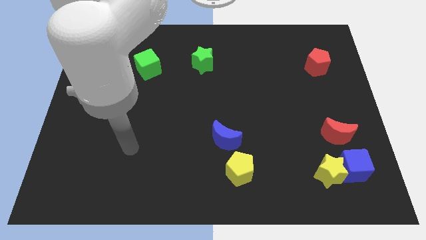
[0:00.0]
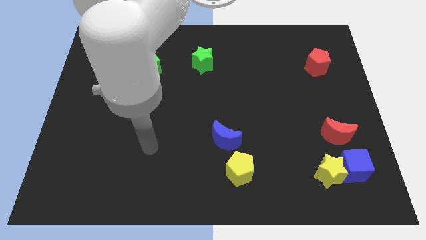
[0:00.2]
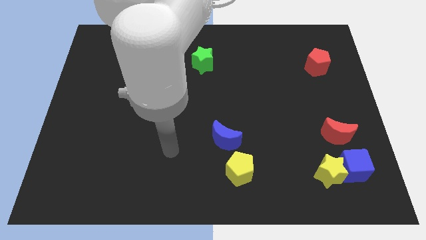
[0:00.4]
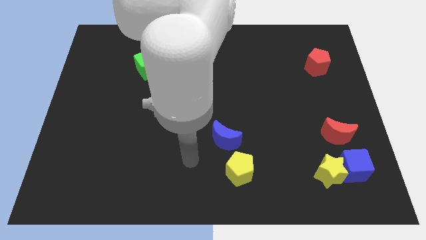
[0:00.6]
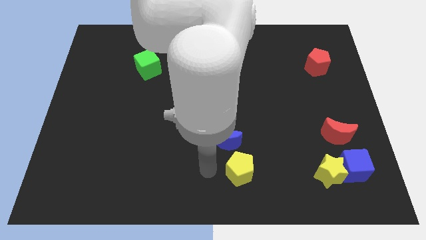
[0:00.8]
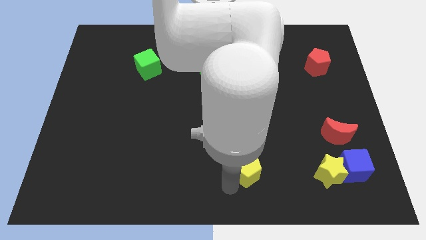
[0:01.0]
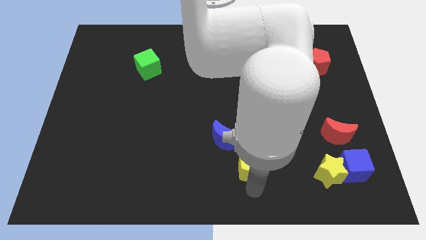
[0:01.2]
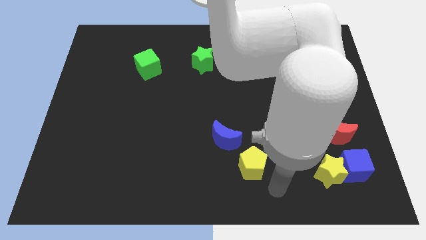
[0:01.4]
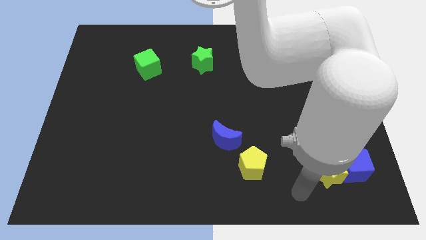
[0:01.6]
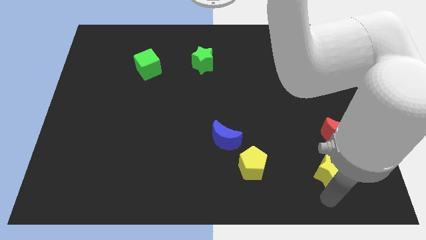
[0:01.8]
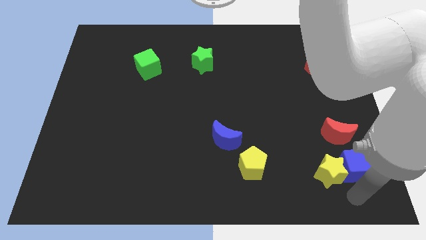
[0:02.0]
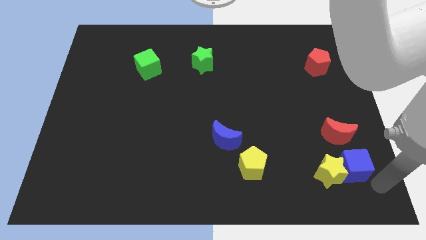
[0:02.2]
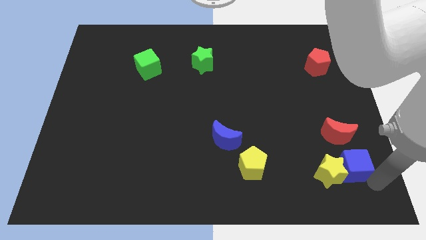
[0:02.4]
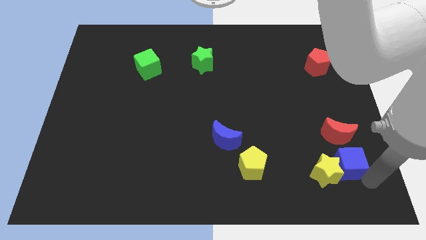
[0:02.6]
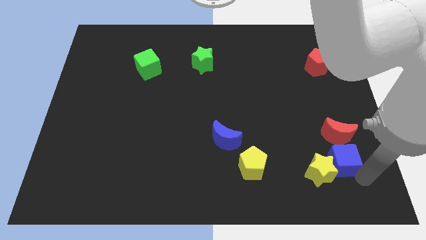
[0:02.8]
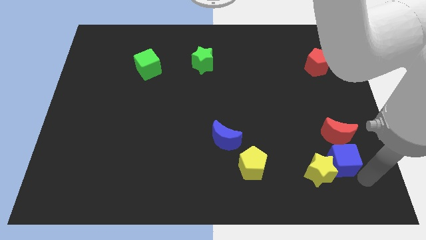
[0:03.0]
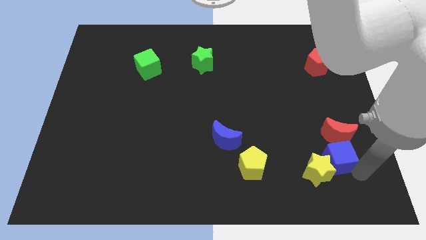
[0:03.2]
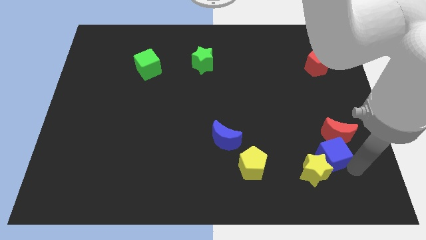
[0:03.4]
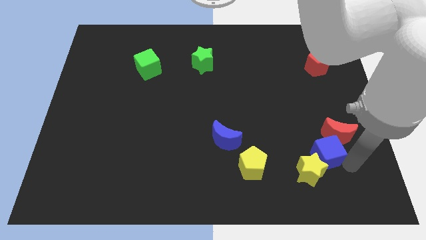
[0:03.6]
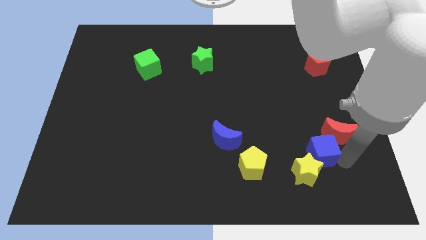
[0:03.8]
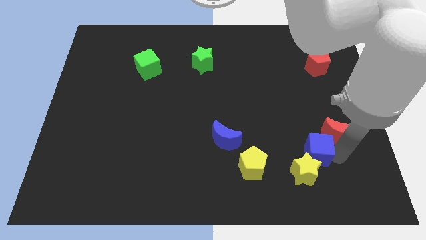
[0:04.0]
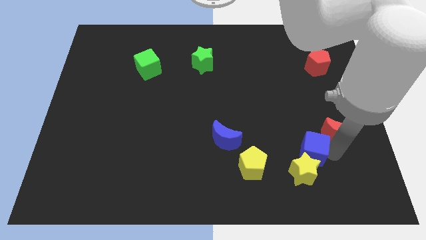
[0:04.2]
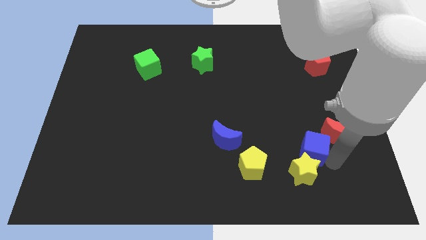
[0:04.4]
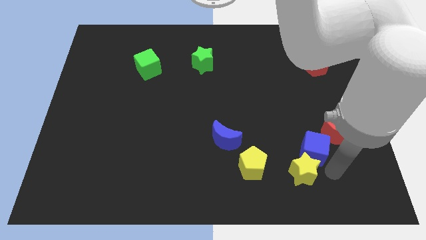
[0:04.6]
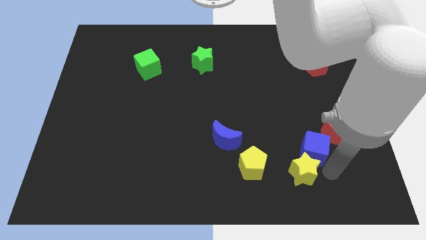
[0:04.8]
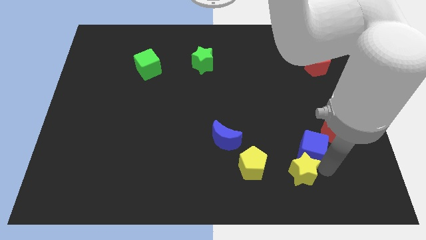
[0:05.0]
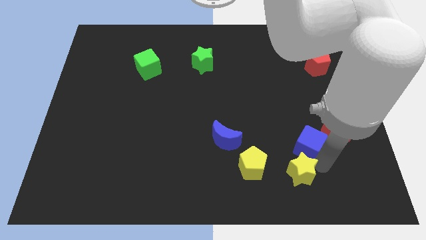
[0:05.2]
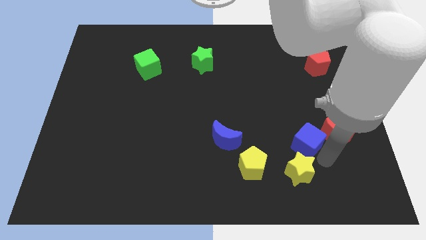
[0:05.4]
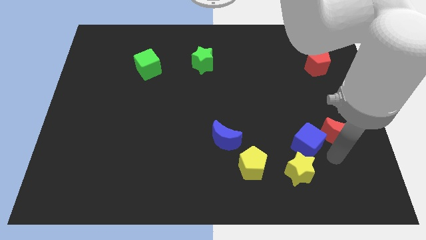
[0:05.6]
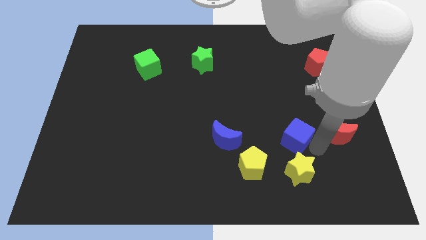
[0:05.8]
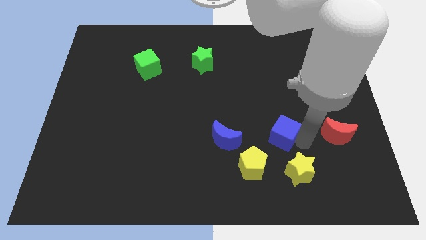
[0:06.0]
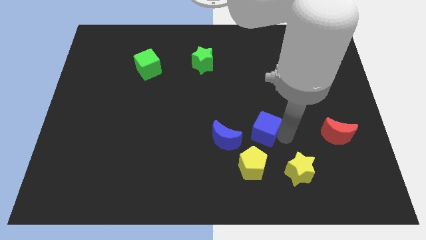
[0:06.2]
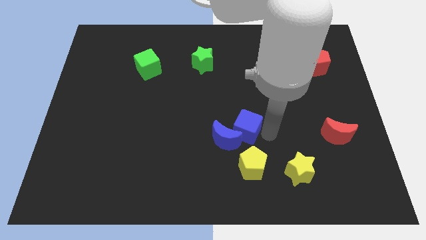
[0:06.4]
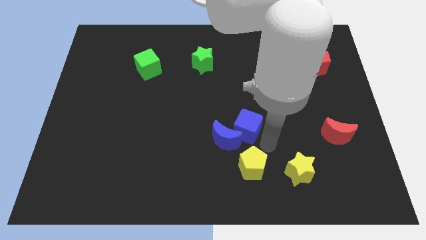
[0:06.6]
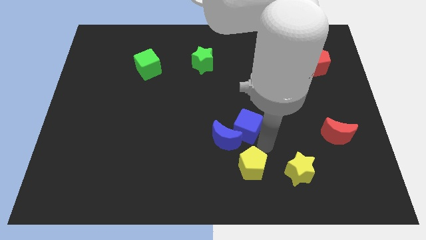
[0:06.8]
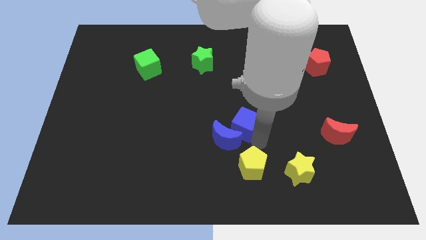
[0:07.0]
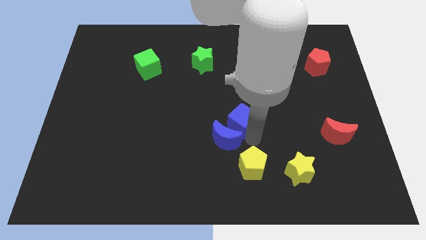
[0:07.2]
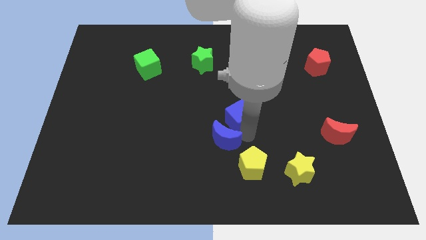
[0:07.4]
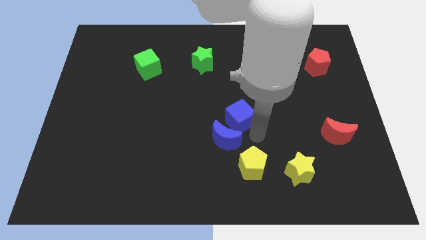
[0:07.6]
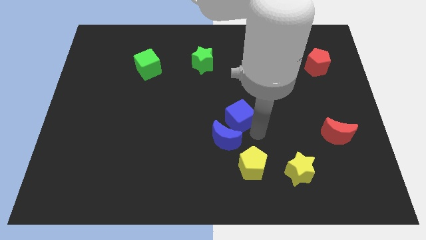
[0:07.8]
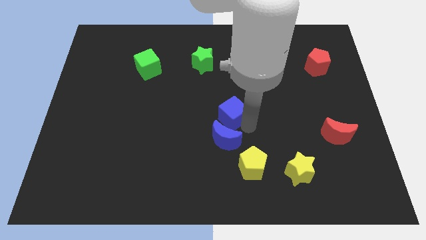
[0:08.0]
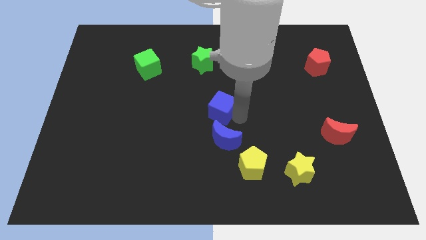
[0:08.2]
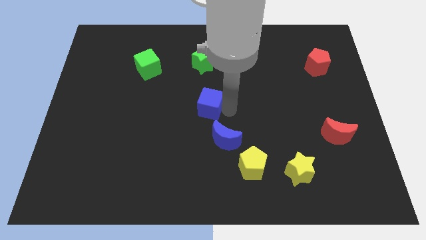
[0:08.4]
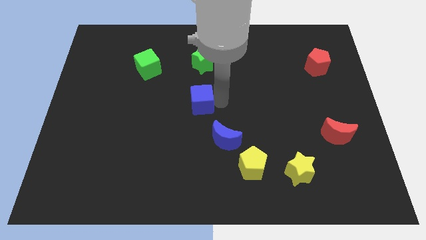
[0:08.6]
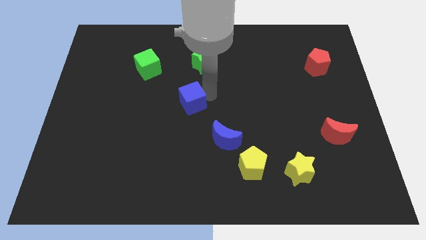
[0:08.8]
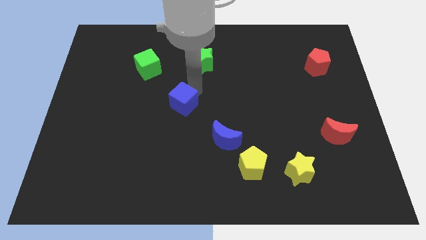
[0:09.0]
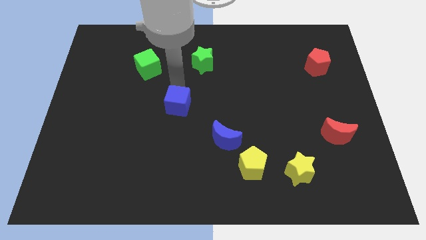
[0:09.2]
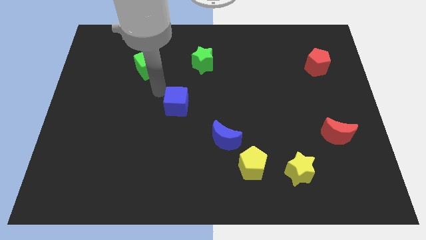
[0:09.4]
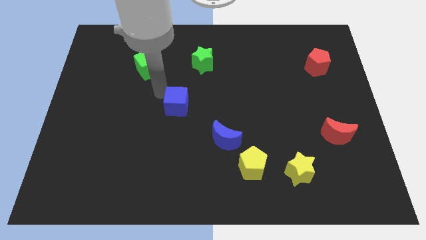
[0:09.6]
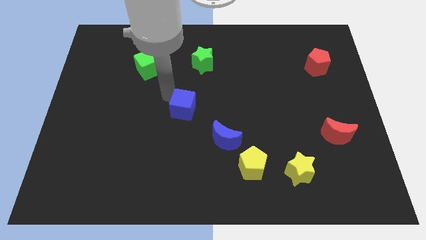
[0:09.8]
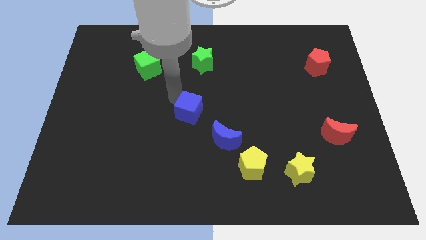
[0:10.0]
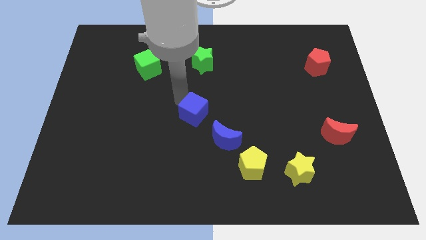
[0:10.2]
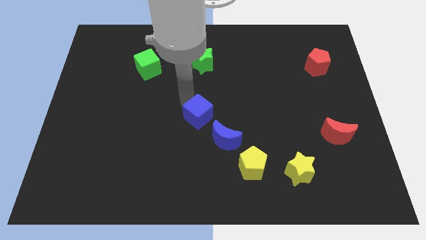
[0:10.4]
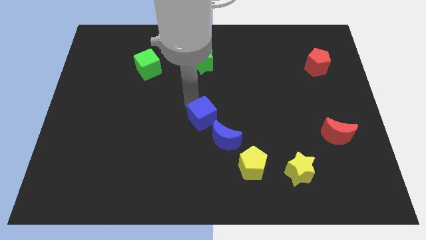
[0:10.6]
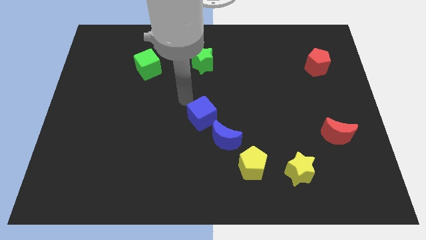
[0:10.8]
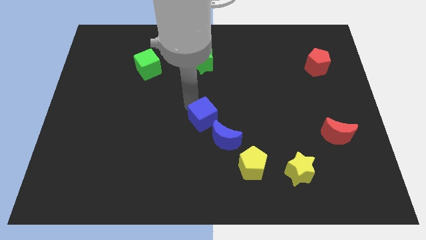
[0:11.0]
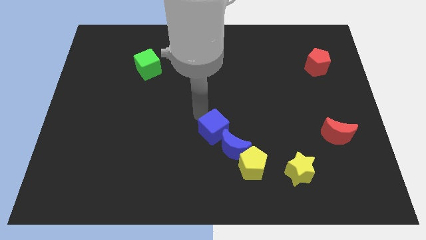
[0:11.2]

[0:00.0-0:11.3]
slide the blue cube to the top left of the yellow pentagon

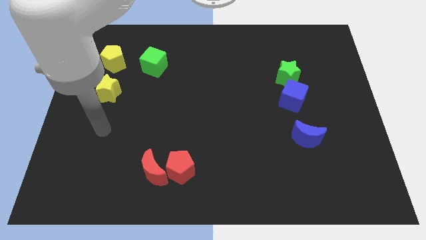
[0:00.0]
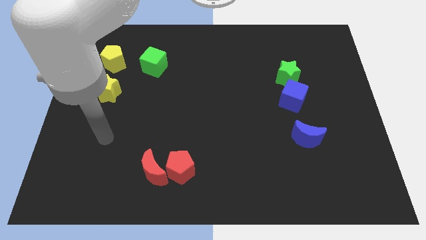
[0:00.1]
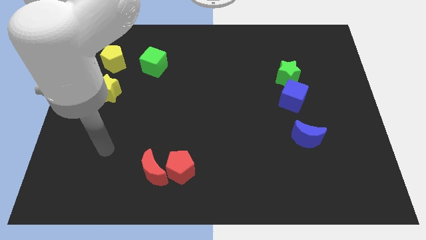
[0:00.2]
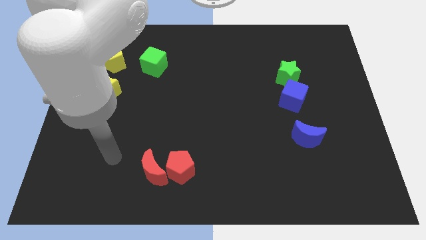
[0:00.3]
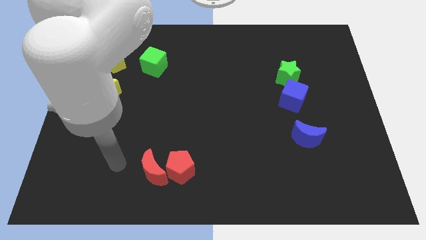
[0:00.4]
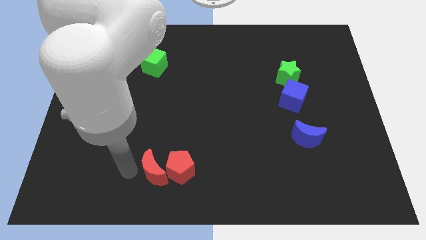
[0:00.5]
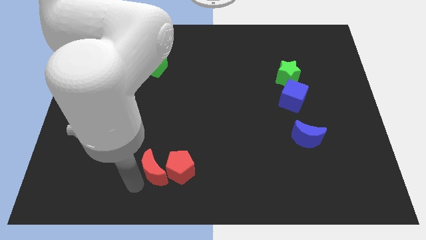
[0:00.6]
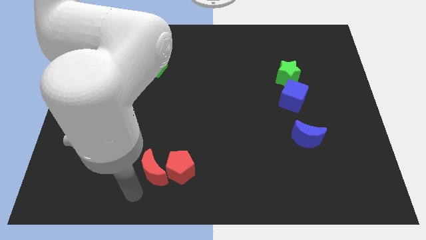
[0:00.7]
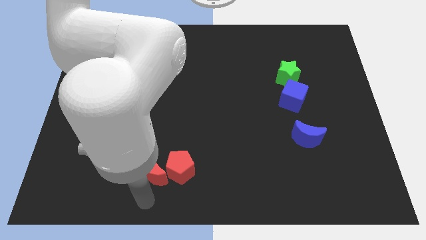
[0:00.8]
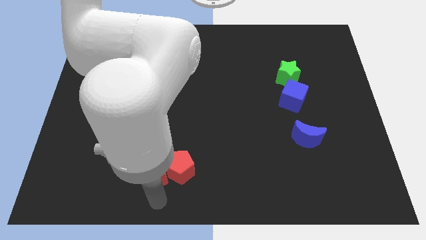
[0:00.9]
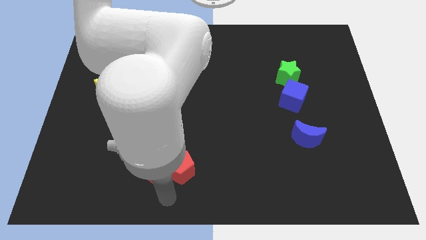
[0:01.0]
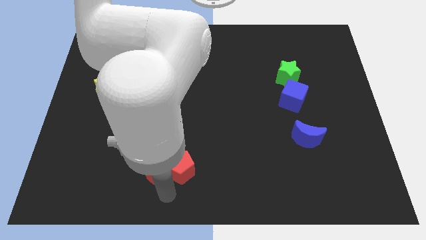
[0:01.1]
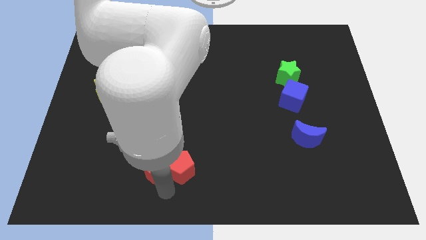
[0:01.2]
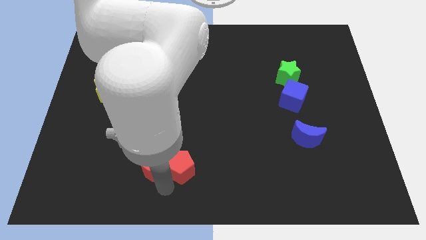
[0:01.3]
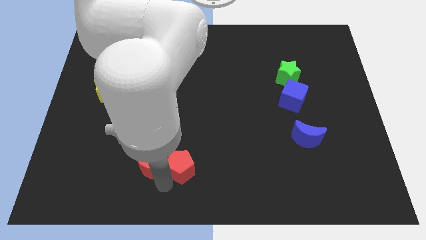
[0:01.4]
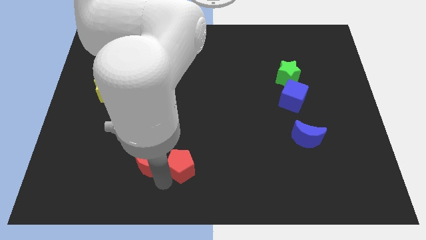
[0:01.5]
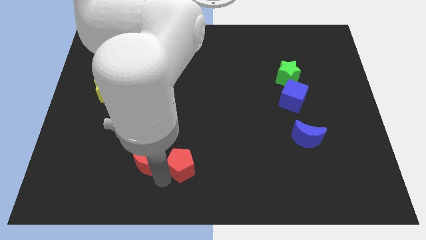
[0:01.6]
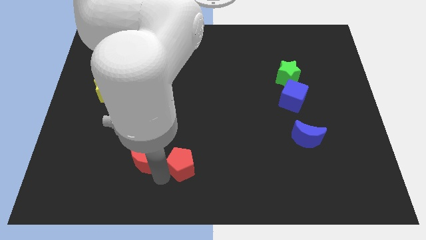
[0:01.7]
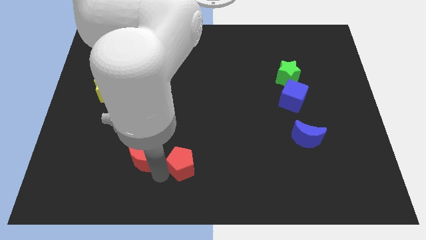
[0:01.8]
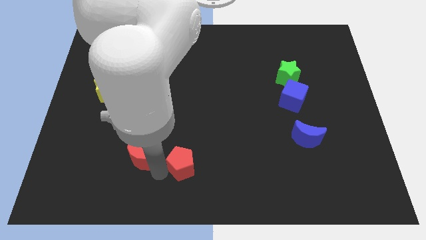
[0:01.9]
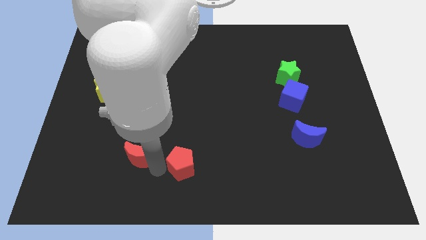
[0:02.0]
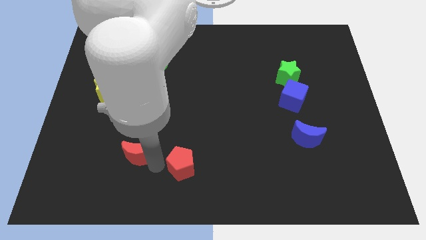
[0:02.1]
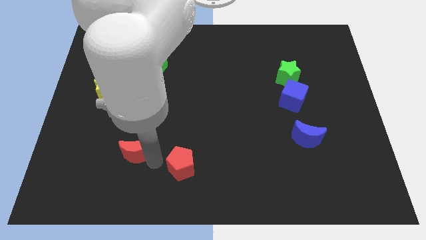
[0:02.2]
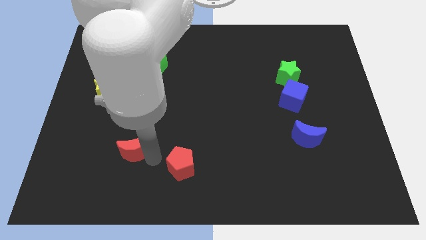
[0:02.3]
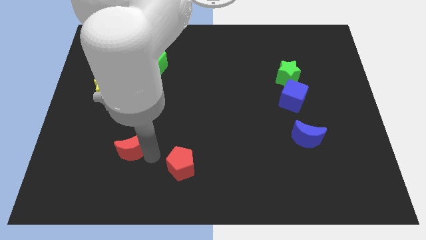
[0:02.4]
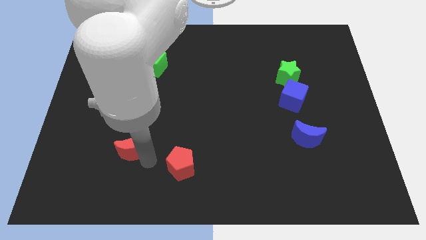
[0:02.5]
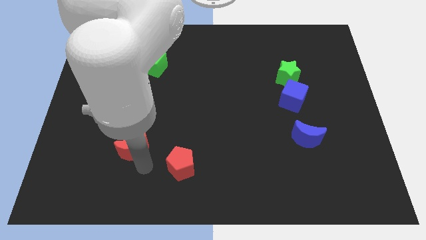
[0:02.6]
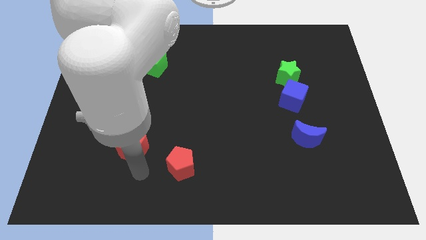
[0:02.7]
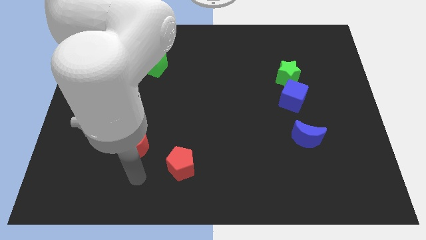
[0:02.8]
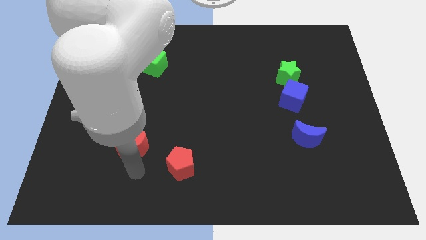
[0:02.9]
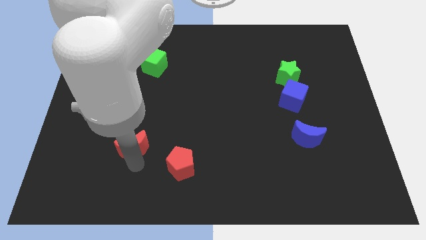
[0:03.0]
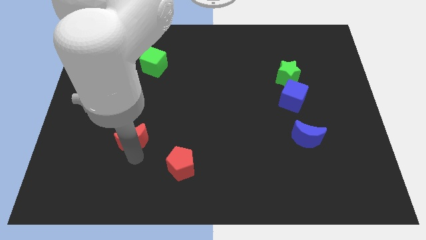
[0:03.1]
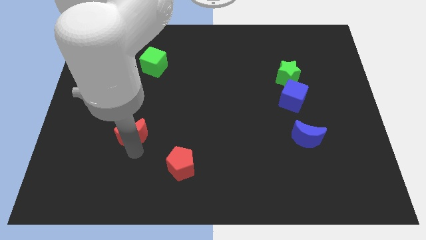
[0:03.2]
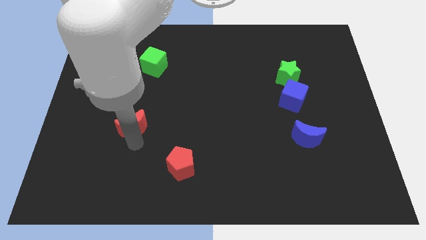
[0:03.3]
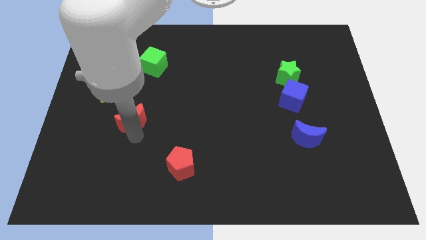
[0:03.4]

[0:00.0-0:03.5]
push the red moon diagonally down and to the right of the yellow star
